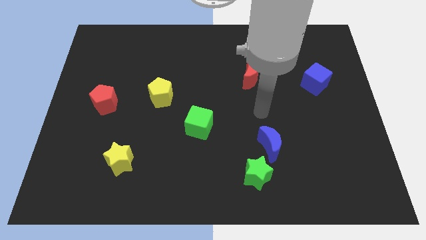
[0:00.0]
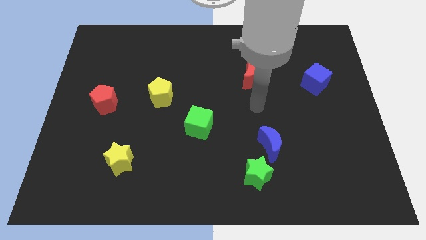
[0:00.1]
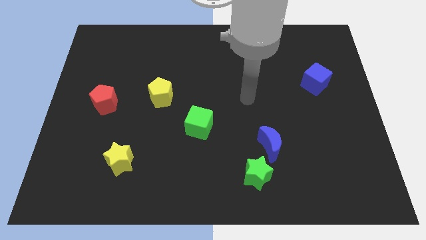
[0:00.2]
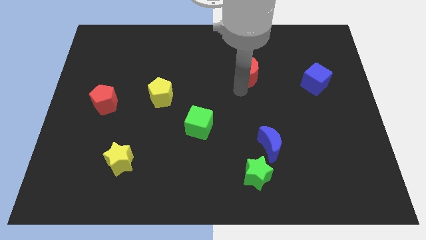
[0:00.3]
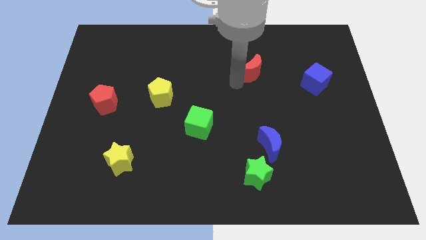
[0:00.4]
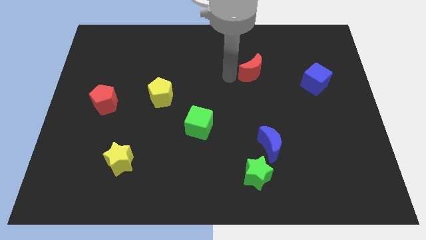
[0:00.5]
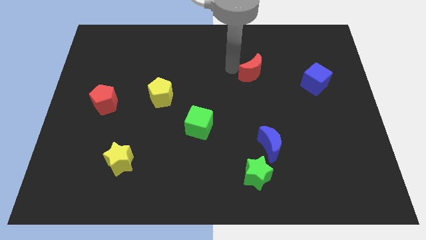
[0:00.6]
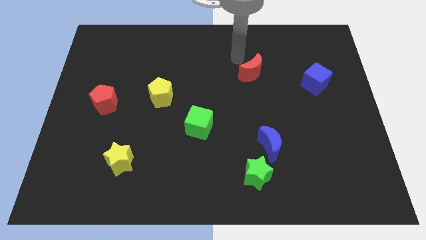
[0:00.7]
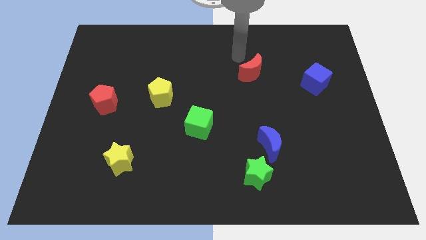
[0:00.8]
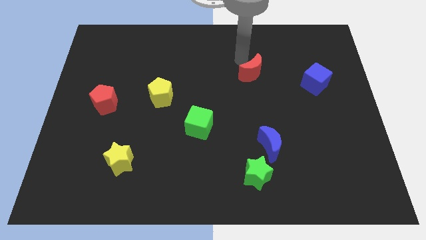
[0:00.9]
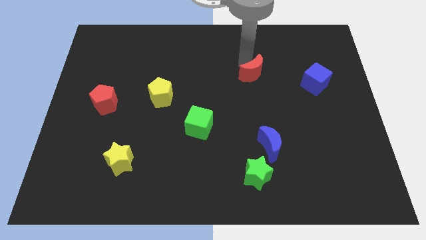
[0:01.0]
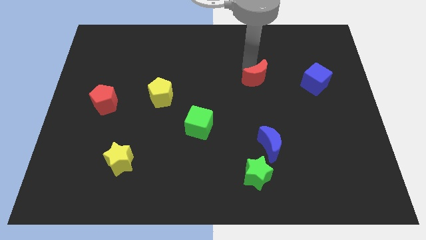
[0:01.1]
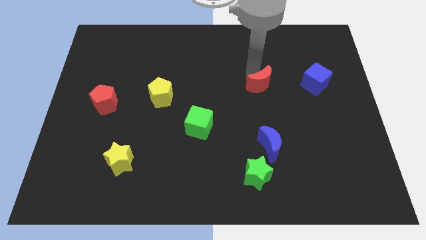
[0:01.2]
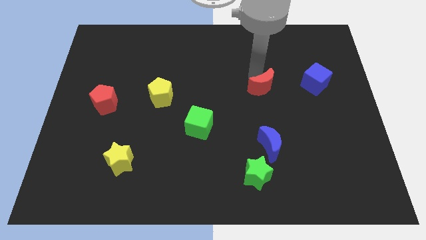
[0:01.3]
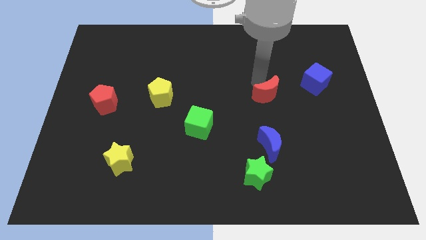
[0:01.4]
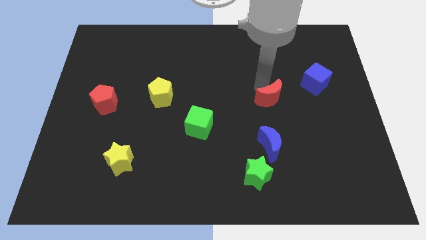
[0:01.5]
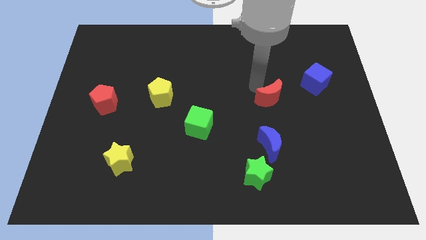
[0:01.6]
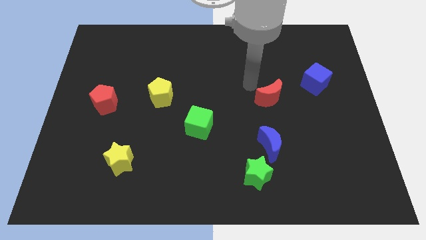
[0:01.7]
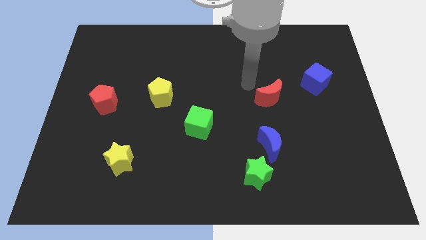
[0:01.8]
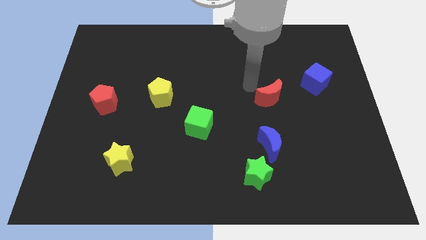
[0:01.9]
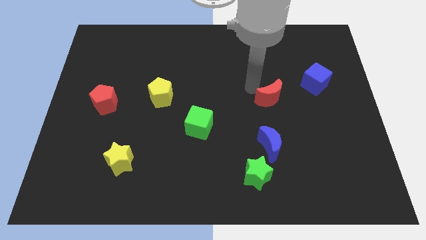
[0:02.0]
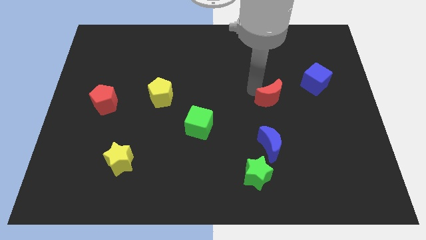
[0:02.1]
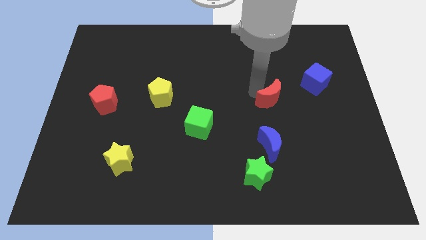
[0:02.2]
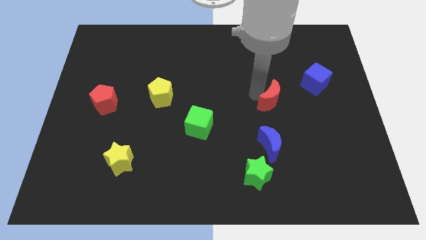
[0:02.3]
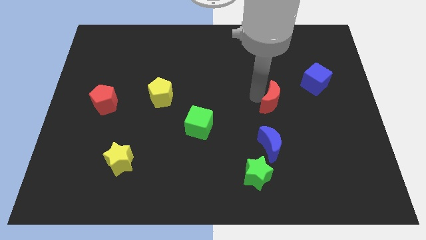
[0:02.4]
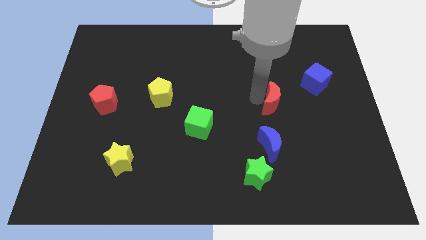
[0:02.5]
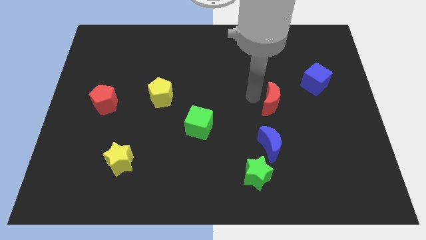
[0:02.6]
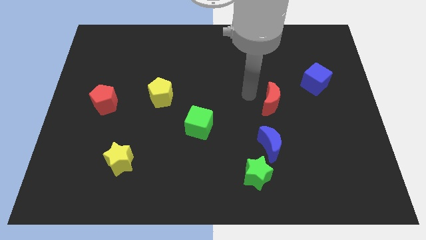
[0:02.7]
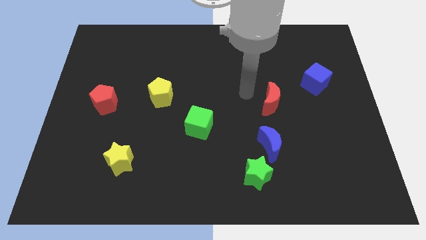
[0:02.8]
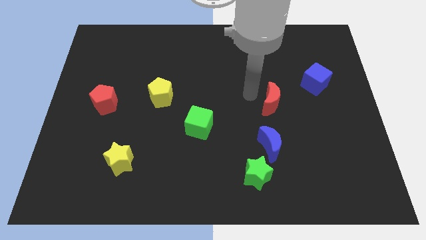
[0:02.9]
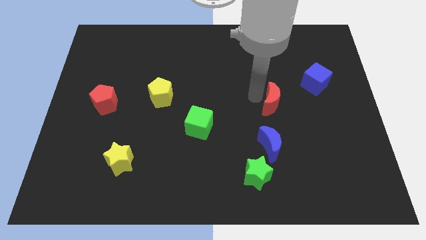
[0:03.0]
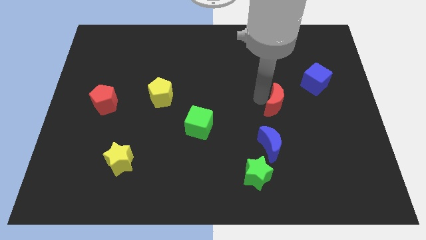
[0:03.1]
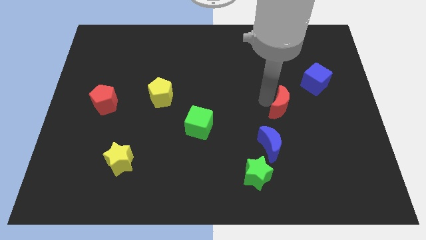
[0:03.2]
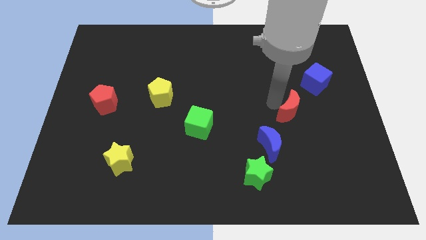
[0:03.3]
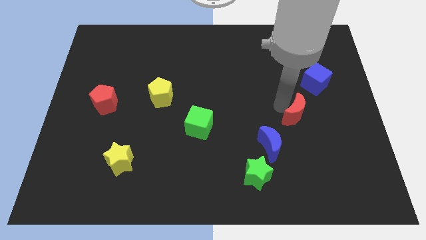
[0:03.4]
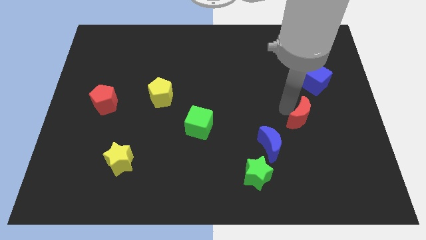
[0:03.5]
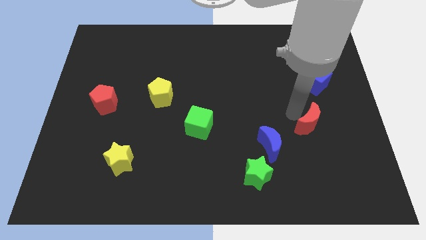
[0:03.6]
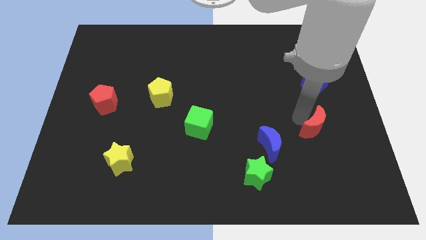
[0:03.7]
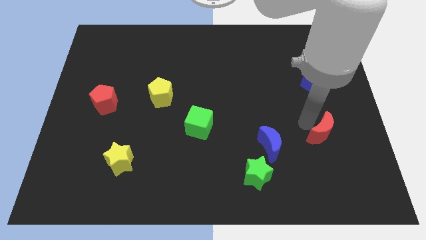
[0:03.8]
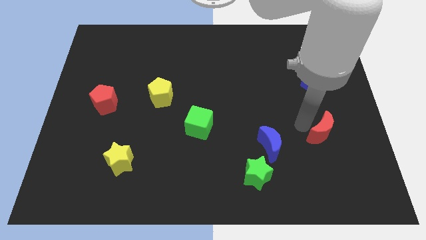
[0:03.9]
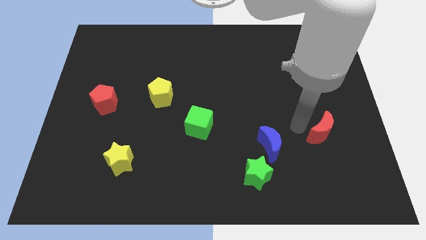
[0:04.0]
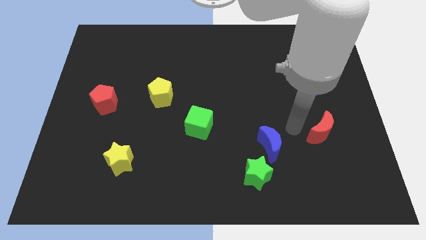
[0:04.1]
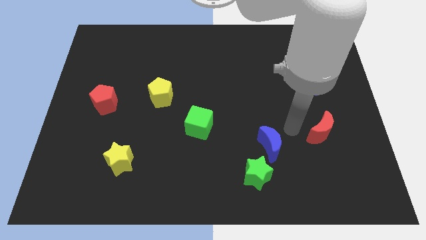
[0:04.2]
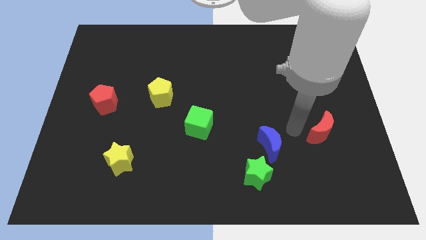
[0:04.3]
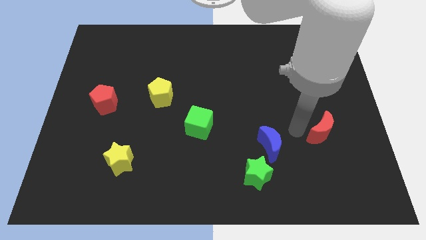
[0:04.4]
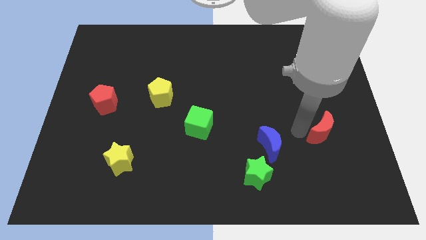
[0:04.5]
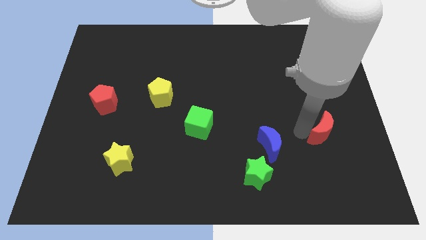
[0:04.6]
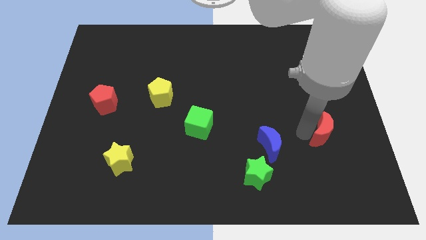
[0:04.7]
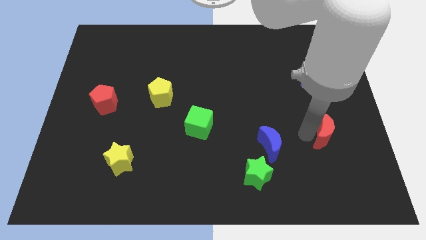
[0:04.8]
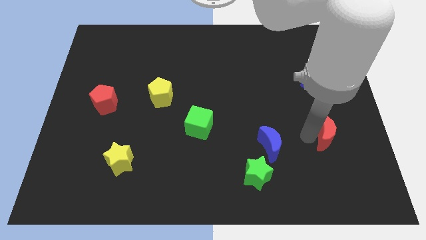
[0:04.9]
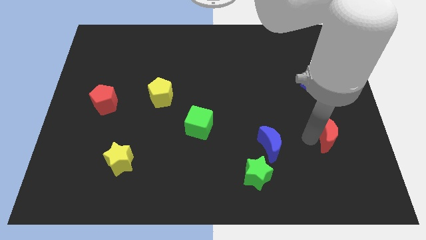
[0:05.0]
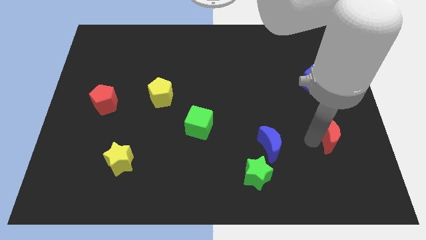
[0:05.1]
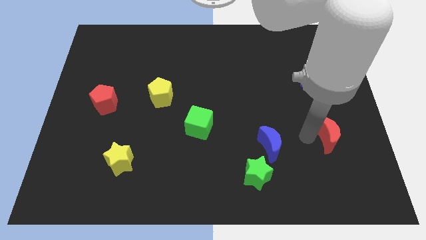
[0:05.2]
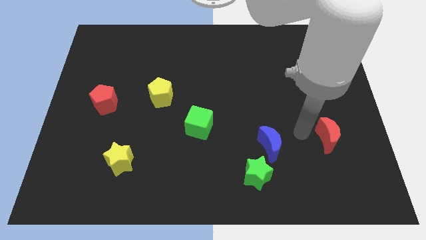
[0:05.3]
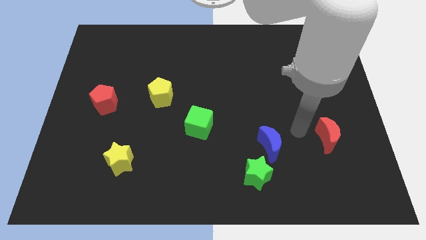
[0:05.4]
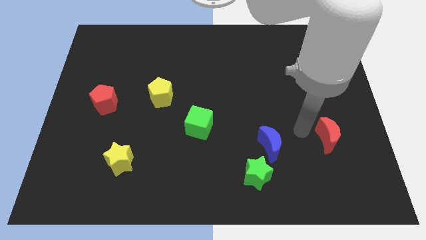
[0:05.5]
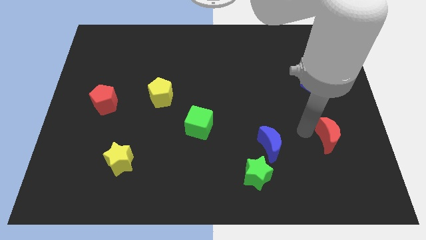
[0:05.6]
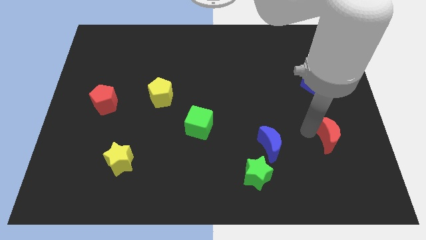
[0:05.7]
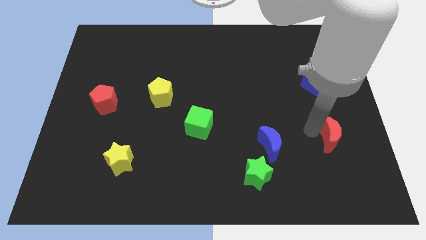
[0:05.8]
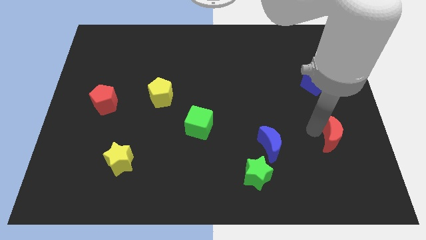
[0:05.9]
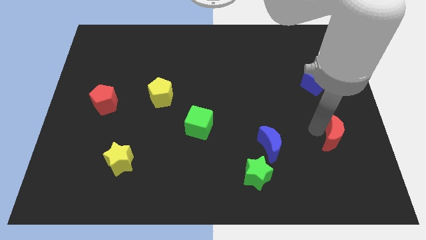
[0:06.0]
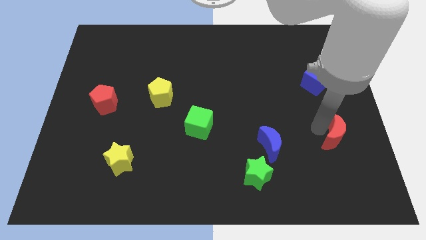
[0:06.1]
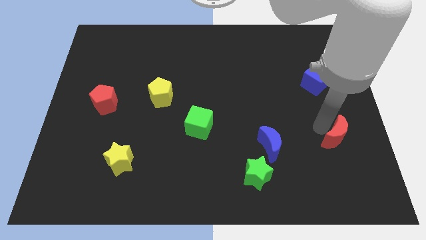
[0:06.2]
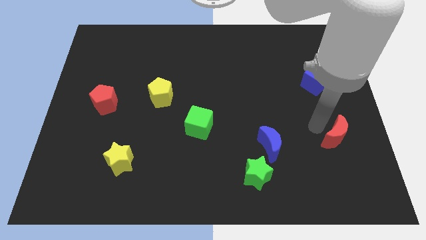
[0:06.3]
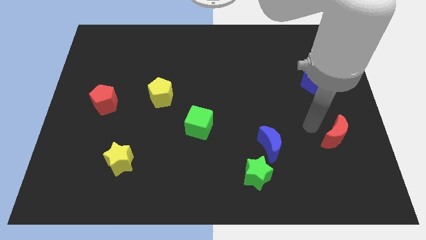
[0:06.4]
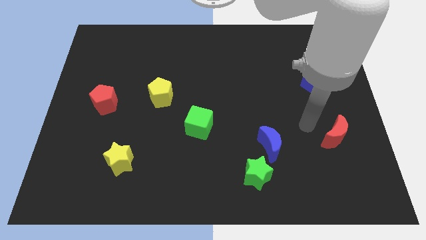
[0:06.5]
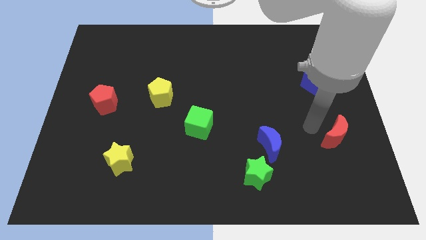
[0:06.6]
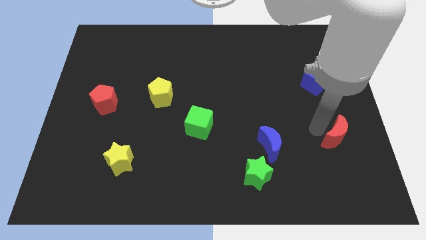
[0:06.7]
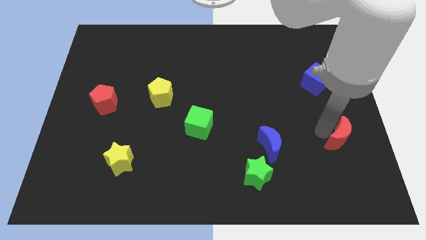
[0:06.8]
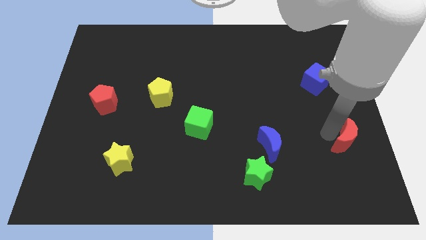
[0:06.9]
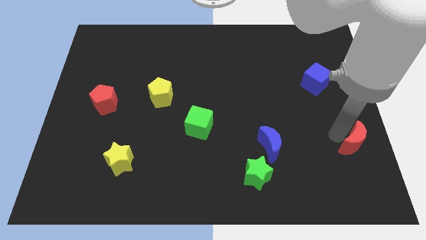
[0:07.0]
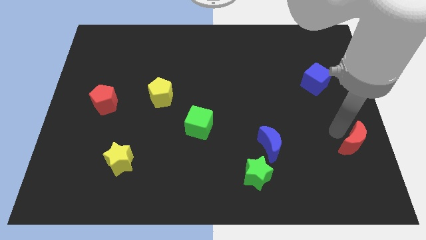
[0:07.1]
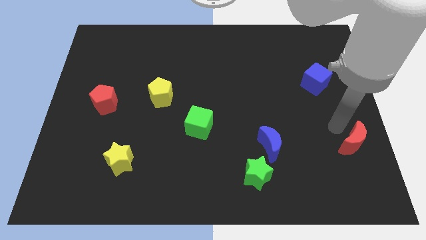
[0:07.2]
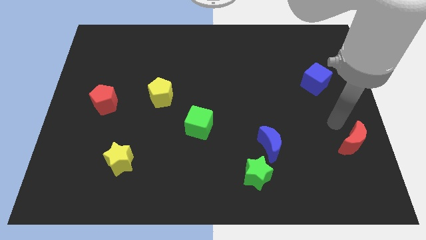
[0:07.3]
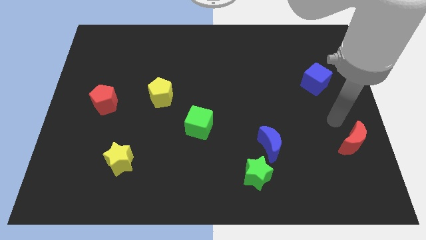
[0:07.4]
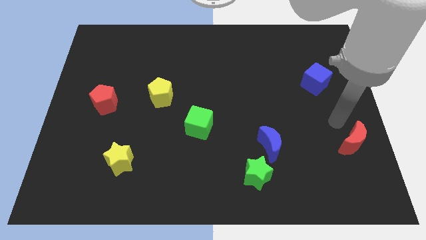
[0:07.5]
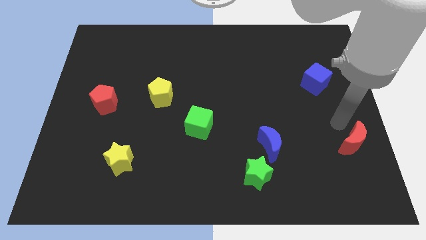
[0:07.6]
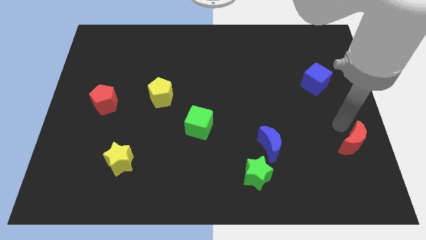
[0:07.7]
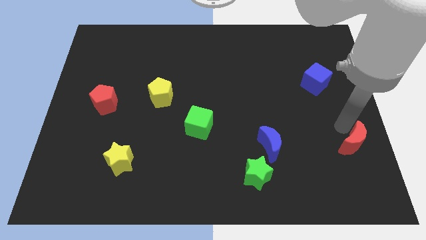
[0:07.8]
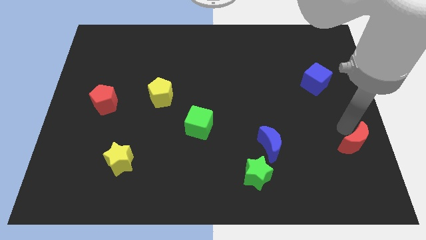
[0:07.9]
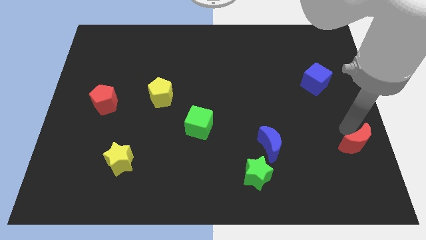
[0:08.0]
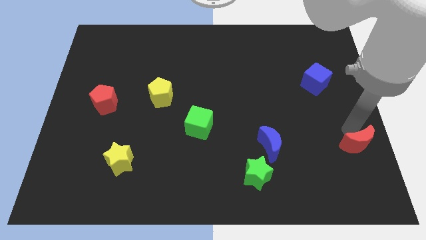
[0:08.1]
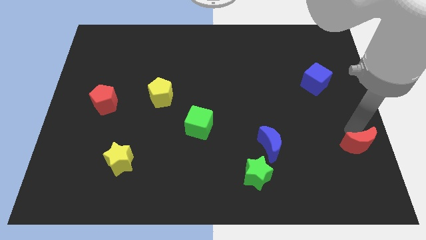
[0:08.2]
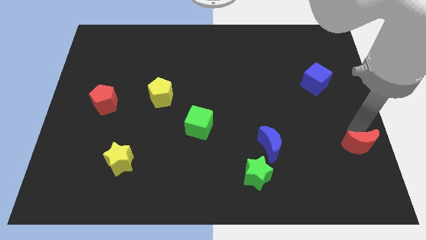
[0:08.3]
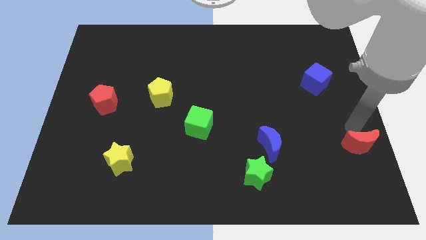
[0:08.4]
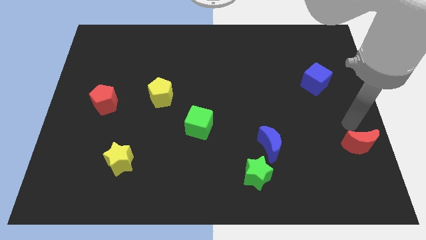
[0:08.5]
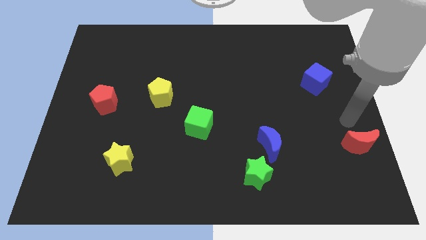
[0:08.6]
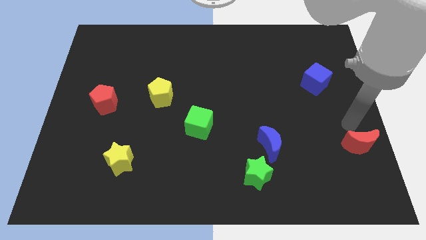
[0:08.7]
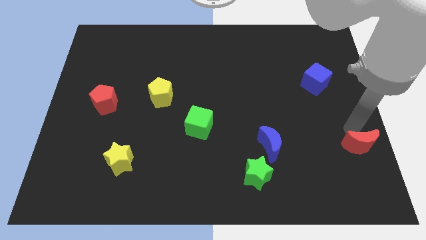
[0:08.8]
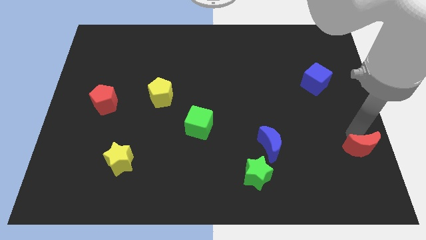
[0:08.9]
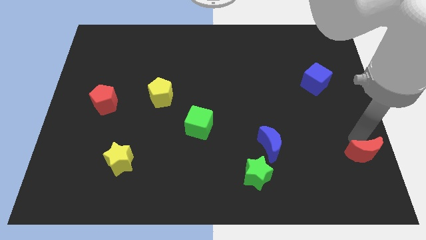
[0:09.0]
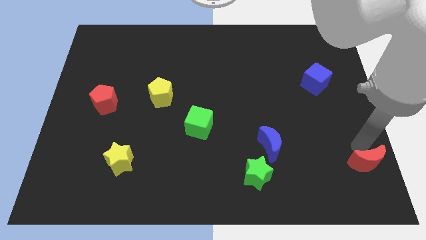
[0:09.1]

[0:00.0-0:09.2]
slide the red moon to the lower right corner
